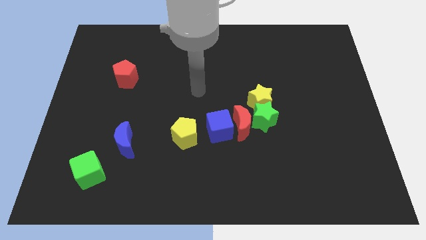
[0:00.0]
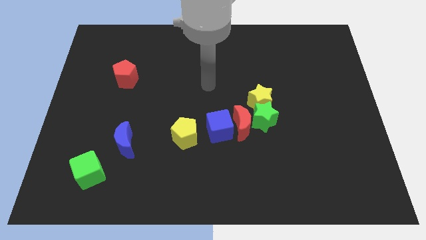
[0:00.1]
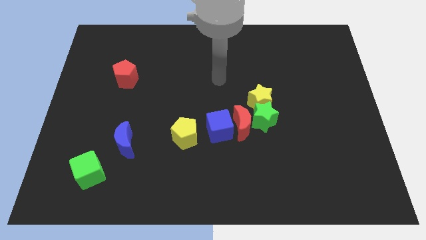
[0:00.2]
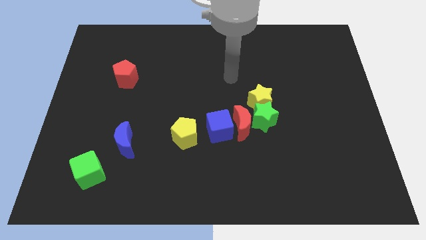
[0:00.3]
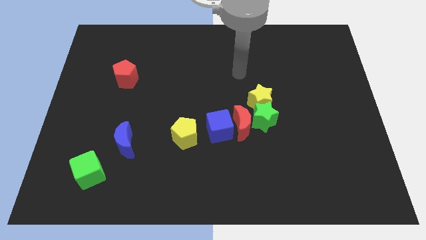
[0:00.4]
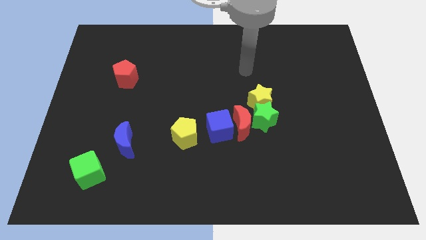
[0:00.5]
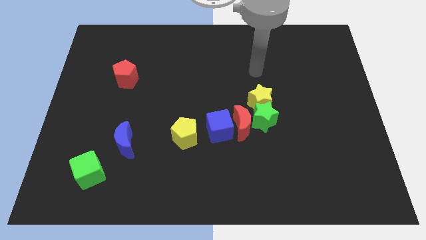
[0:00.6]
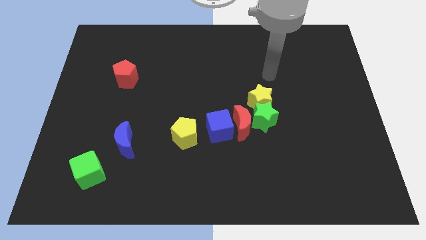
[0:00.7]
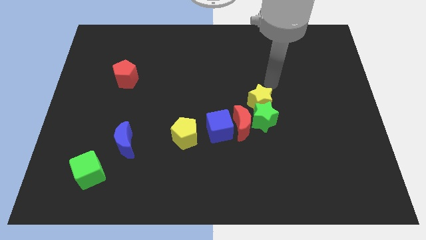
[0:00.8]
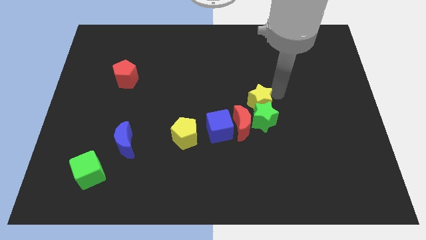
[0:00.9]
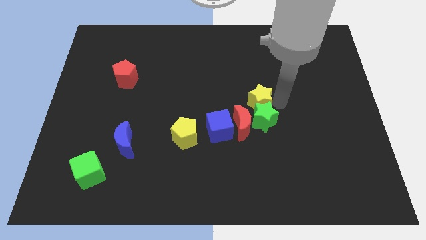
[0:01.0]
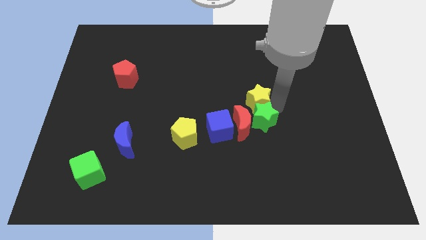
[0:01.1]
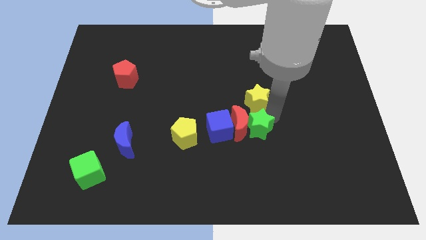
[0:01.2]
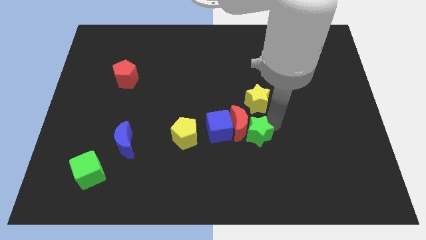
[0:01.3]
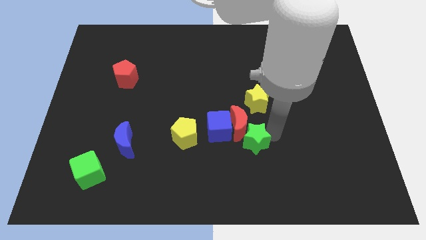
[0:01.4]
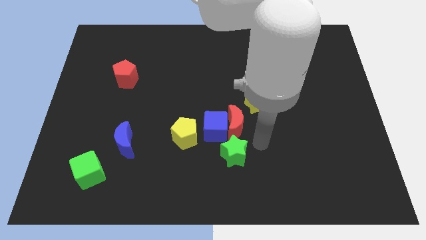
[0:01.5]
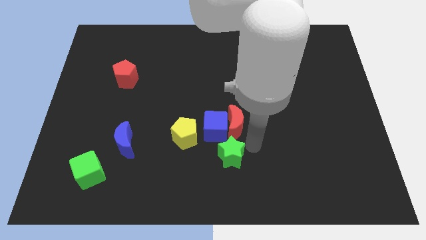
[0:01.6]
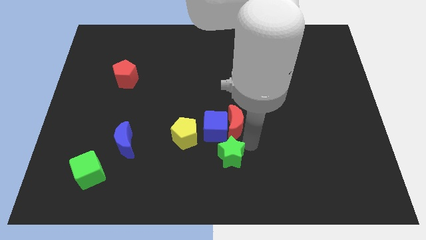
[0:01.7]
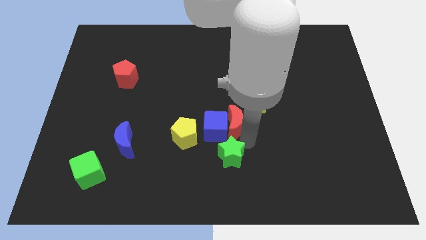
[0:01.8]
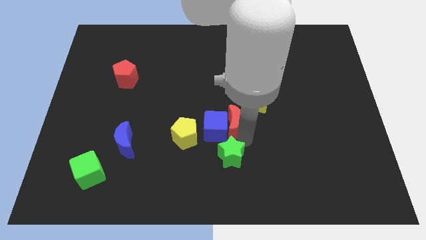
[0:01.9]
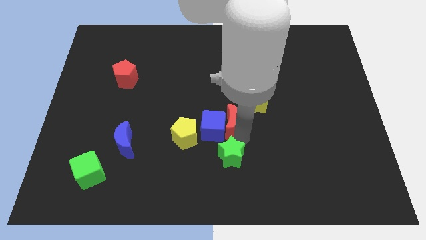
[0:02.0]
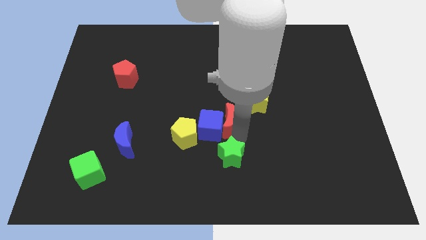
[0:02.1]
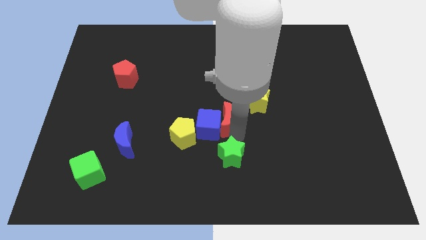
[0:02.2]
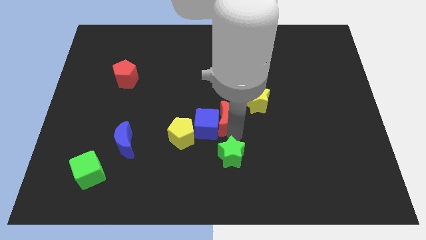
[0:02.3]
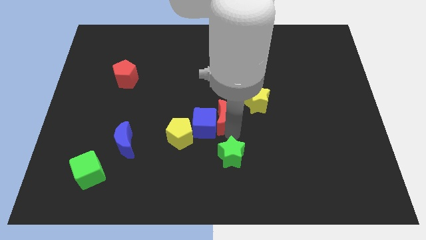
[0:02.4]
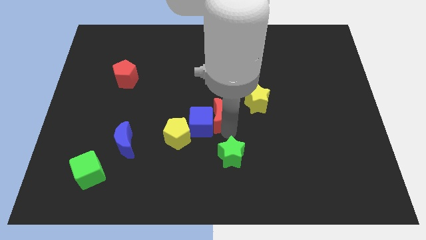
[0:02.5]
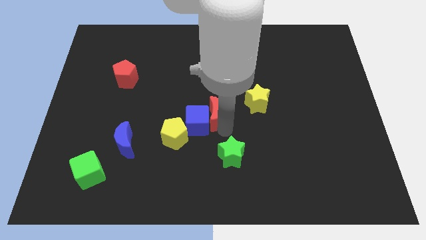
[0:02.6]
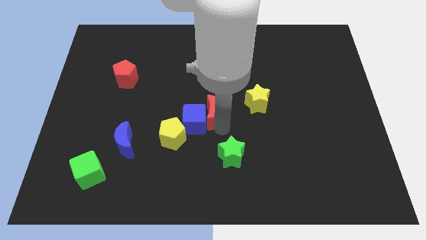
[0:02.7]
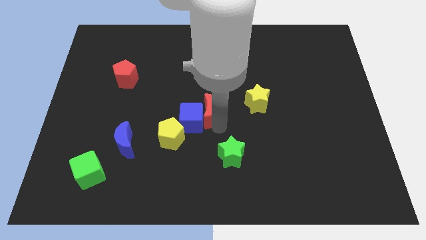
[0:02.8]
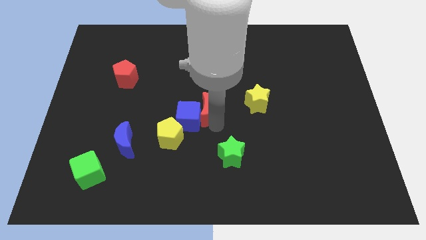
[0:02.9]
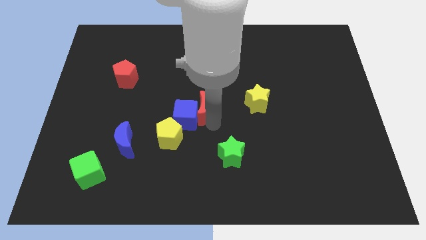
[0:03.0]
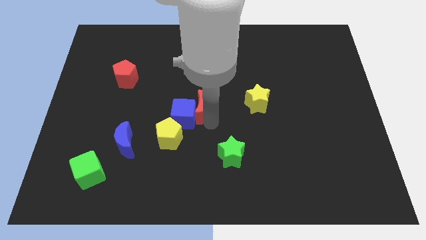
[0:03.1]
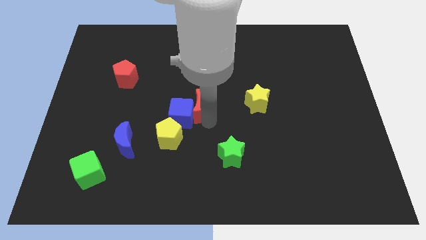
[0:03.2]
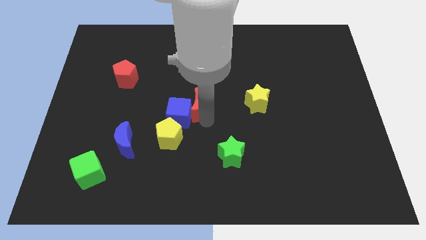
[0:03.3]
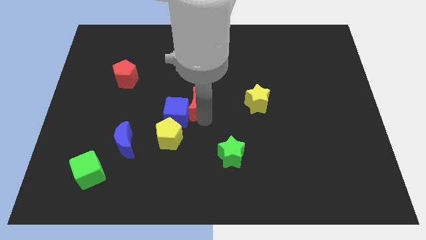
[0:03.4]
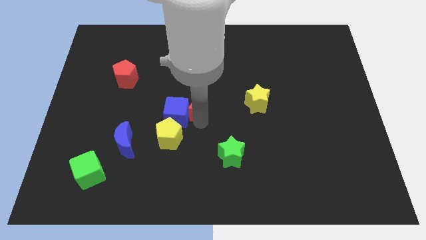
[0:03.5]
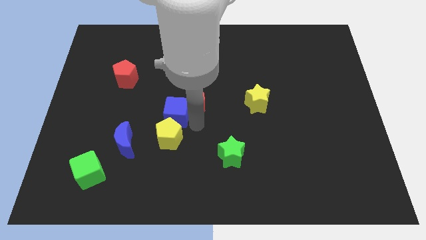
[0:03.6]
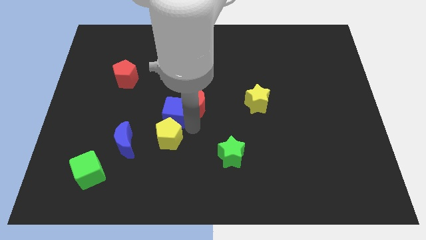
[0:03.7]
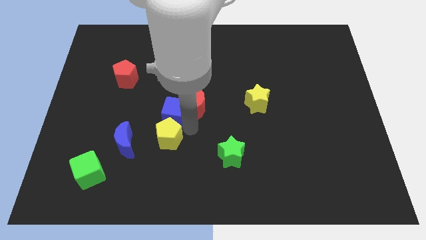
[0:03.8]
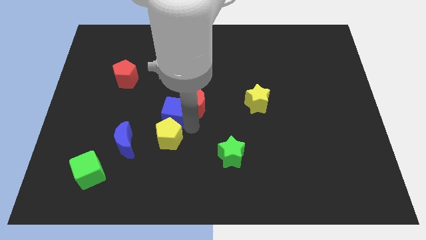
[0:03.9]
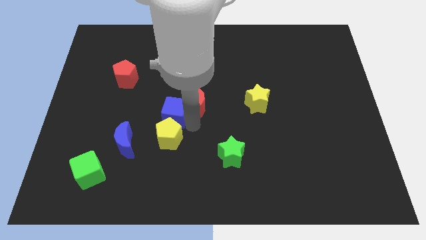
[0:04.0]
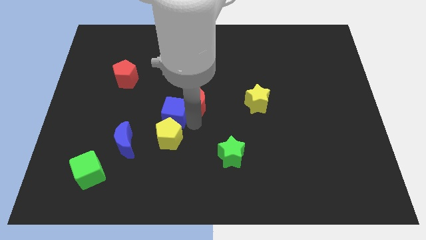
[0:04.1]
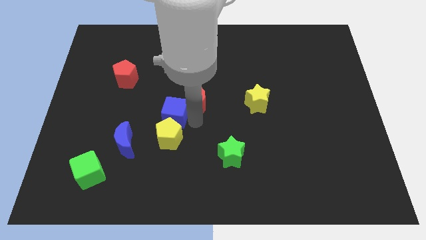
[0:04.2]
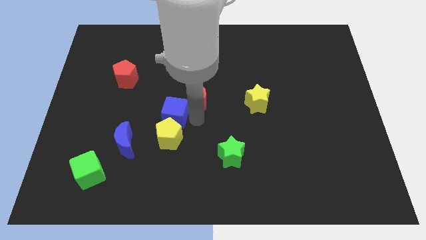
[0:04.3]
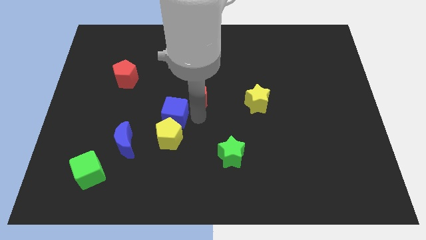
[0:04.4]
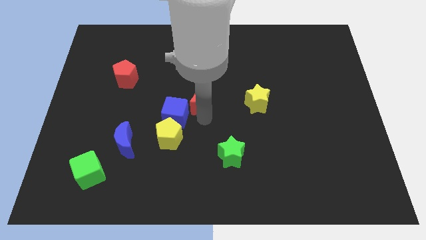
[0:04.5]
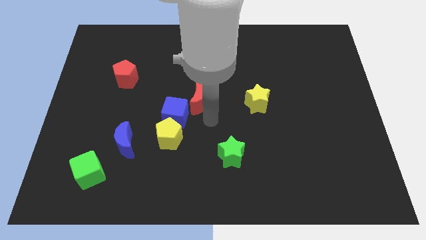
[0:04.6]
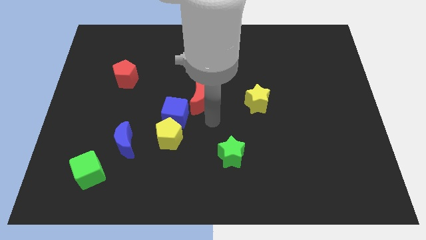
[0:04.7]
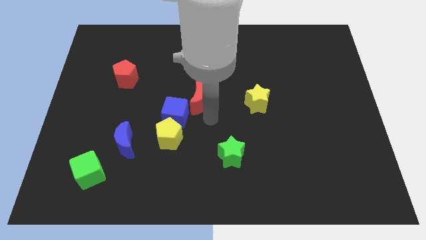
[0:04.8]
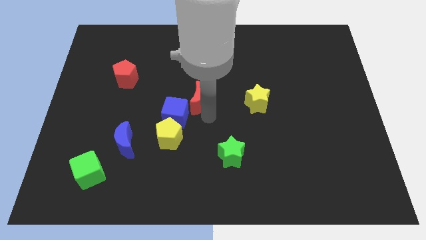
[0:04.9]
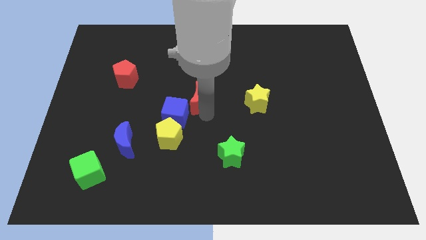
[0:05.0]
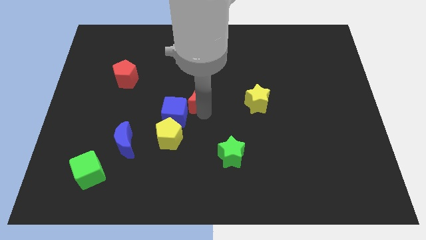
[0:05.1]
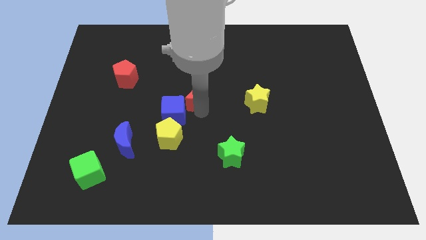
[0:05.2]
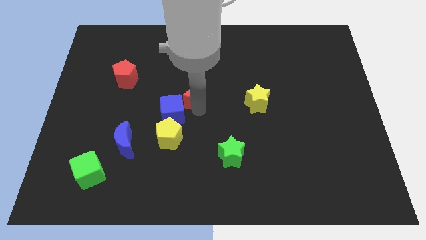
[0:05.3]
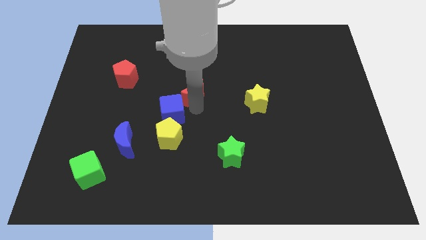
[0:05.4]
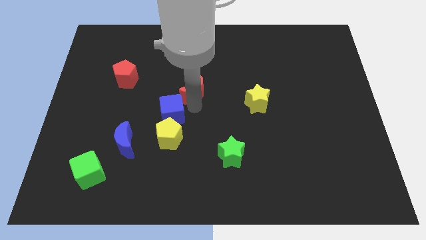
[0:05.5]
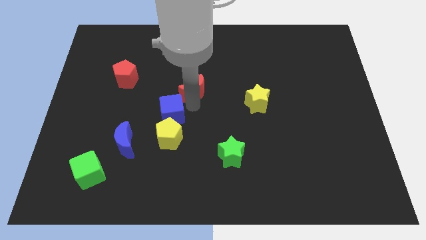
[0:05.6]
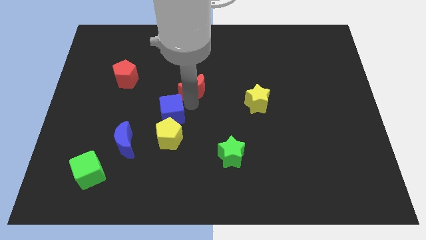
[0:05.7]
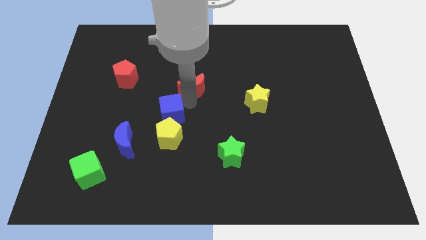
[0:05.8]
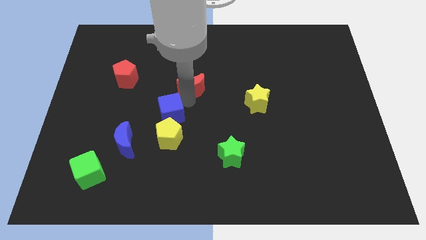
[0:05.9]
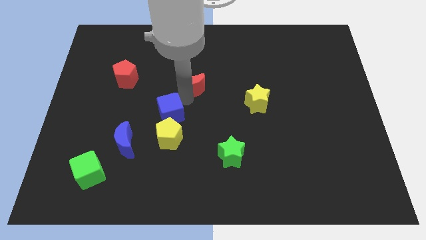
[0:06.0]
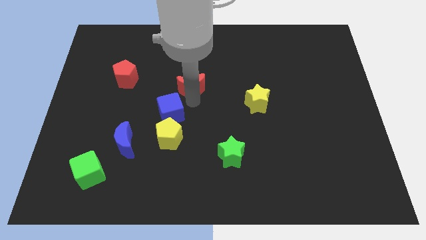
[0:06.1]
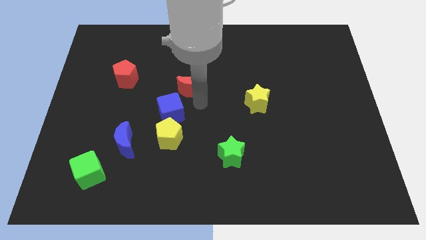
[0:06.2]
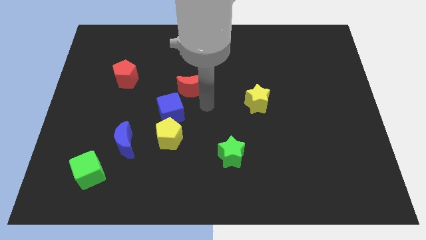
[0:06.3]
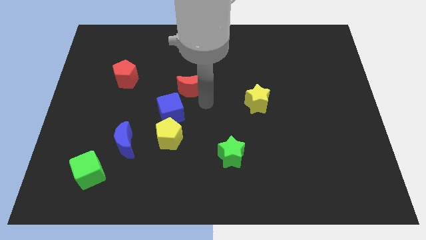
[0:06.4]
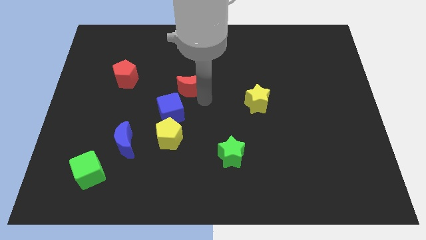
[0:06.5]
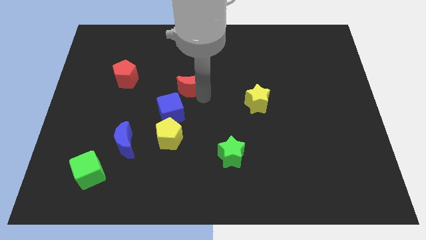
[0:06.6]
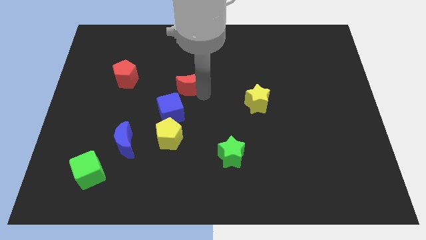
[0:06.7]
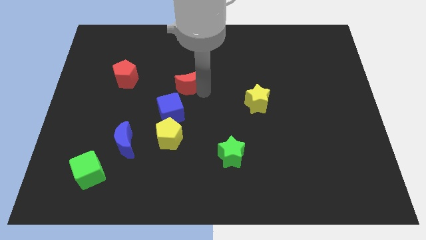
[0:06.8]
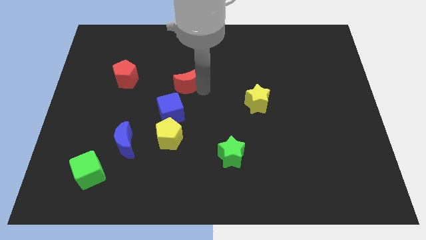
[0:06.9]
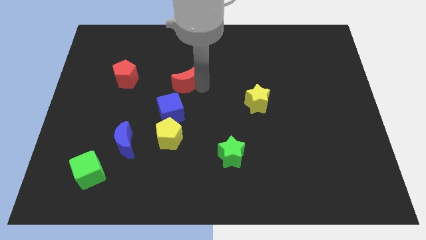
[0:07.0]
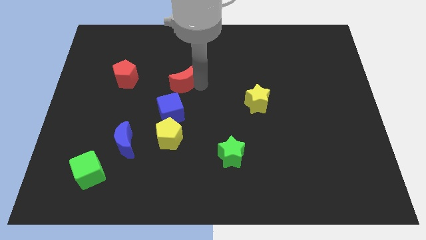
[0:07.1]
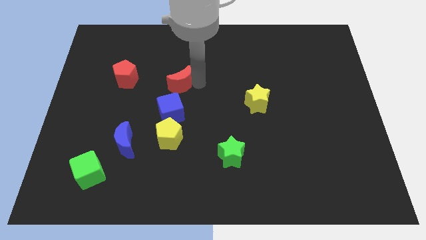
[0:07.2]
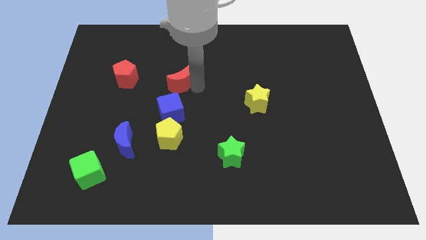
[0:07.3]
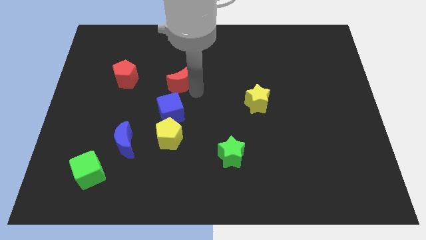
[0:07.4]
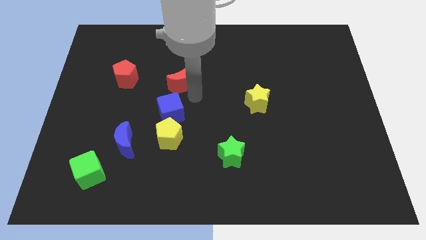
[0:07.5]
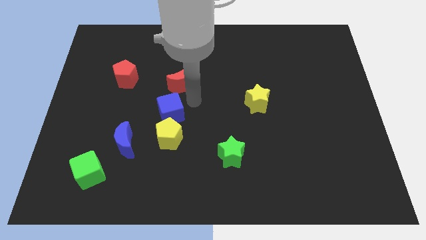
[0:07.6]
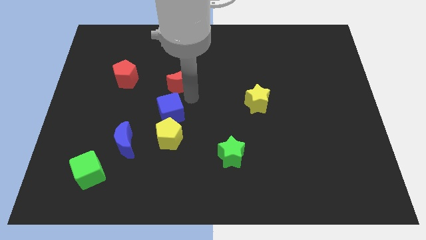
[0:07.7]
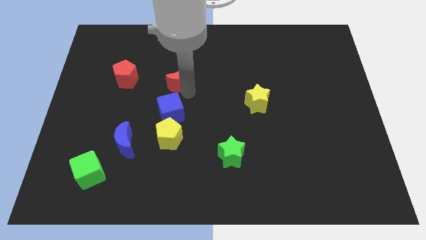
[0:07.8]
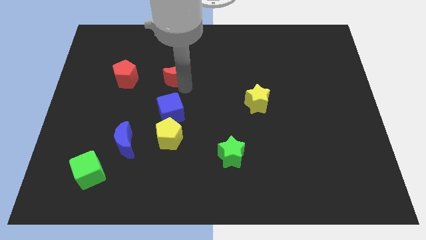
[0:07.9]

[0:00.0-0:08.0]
slide the red moon upwards and then to the left
